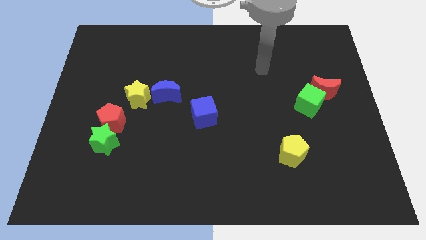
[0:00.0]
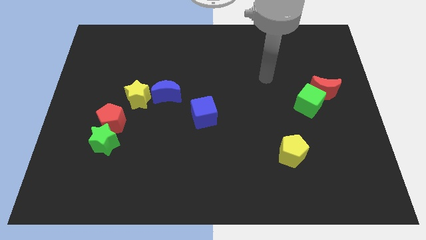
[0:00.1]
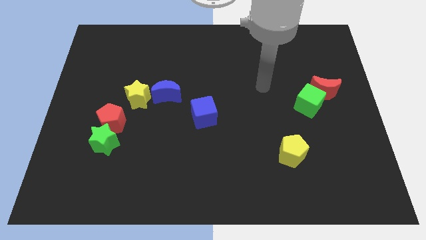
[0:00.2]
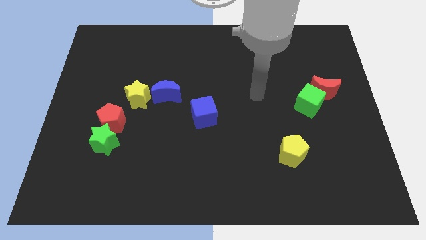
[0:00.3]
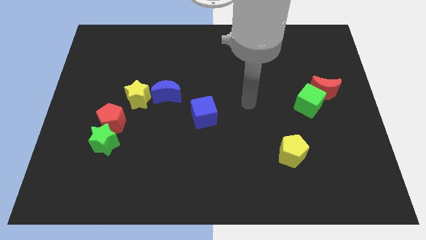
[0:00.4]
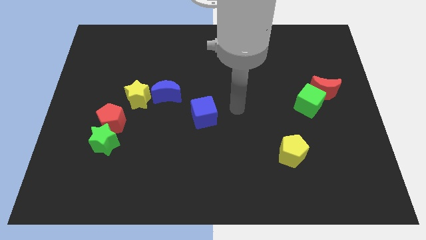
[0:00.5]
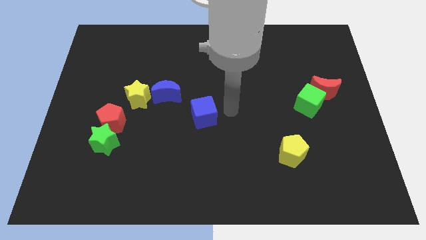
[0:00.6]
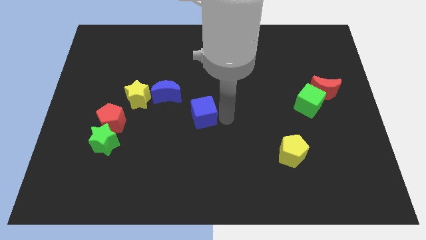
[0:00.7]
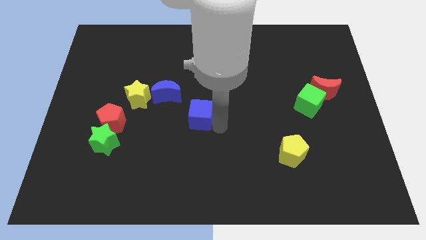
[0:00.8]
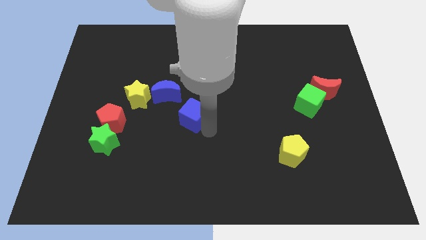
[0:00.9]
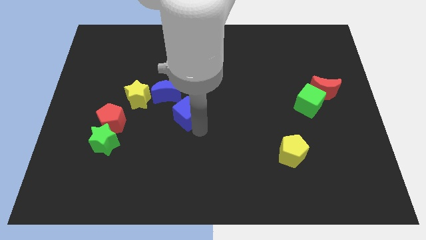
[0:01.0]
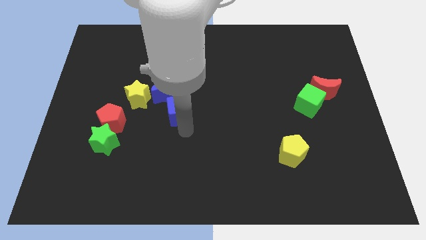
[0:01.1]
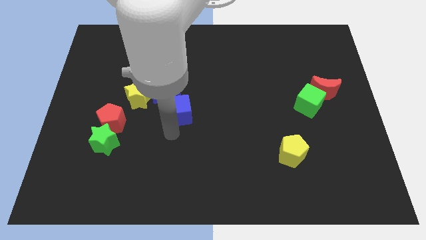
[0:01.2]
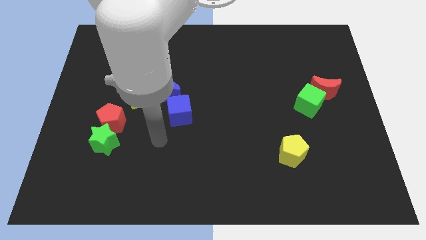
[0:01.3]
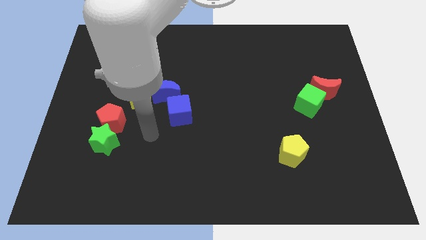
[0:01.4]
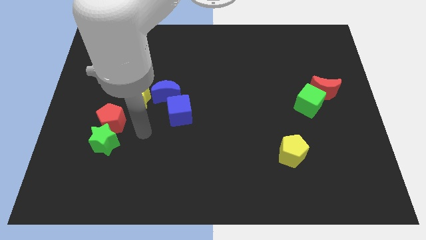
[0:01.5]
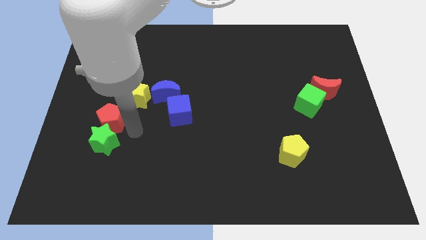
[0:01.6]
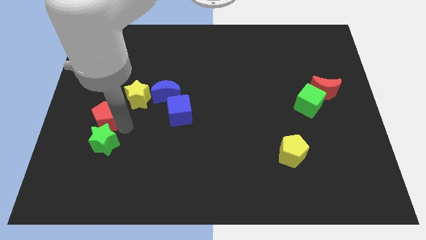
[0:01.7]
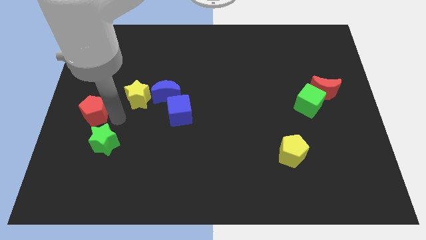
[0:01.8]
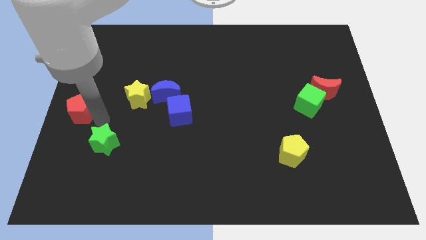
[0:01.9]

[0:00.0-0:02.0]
pull the green star apart from the red pentagon

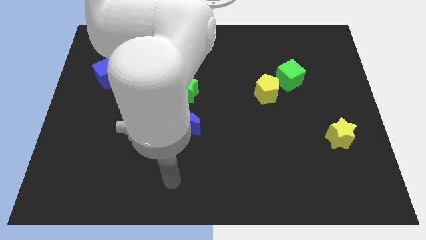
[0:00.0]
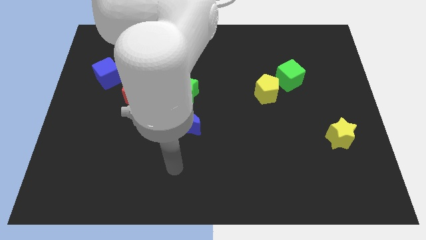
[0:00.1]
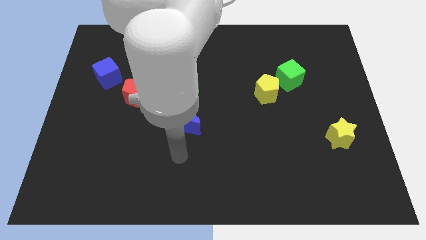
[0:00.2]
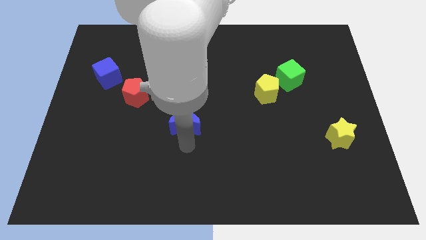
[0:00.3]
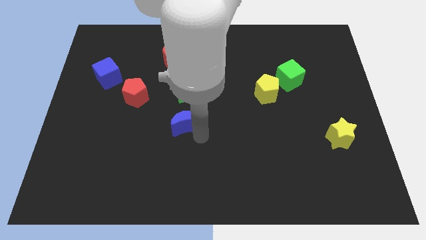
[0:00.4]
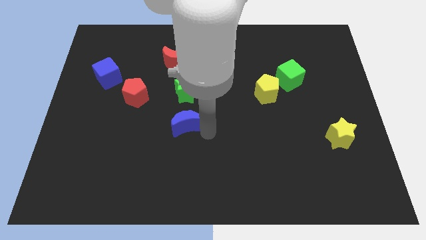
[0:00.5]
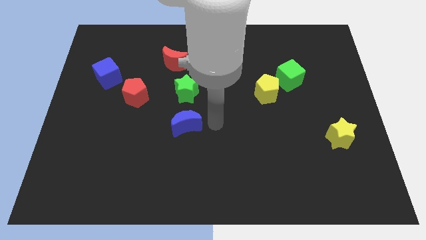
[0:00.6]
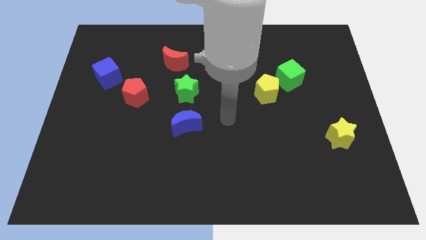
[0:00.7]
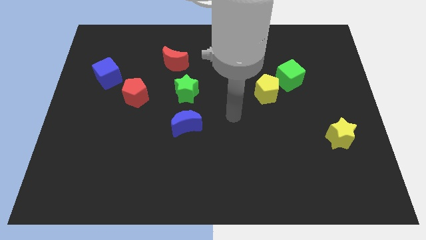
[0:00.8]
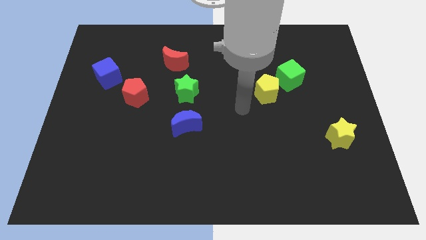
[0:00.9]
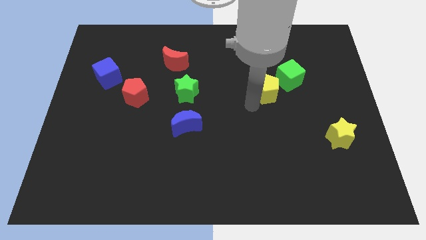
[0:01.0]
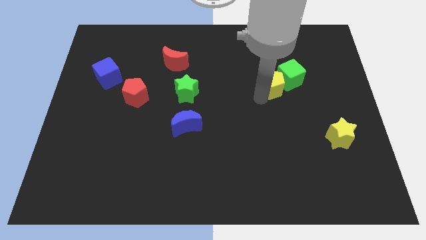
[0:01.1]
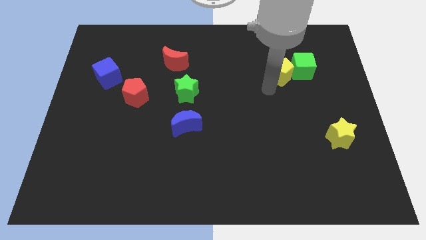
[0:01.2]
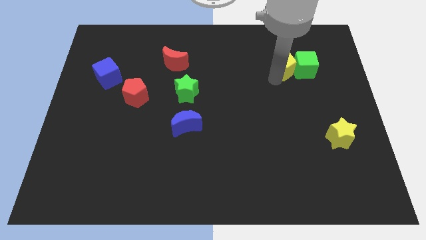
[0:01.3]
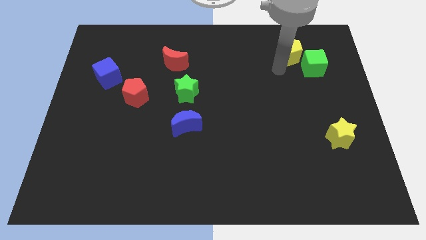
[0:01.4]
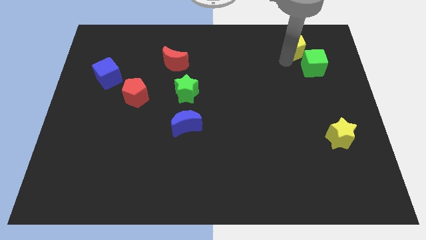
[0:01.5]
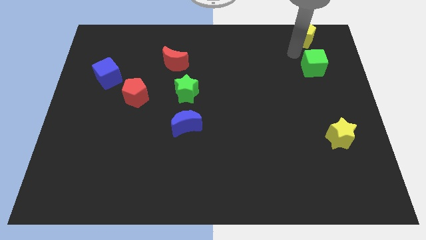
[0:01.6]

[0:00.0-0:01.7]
separate the green cube from the yellow pentagon

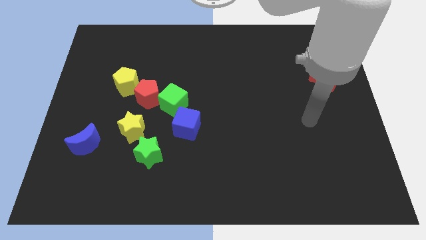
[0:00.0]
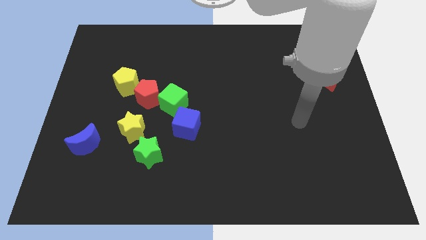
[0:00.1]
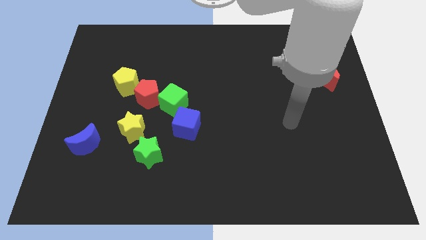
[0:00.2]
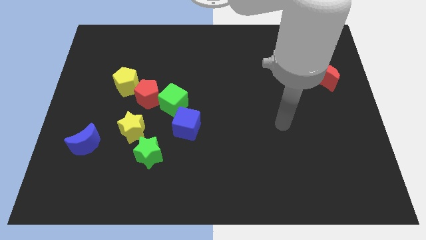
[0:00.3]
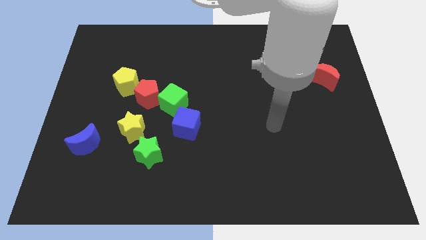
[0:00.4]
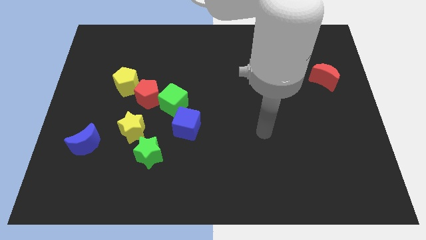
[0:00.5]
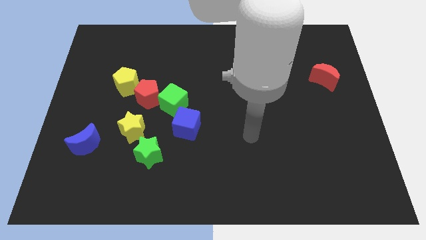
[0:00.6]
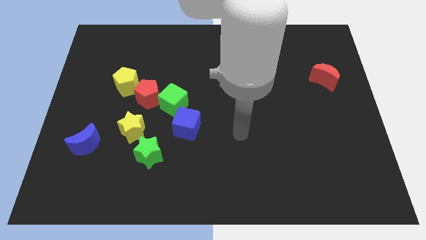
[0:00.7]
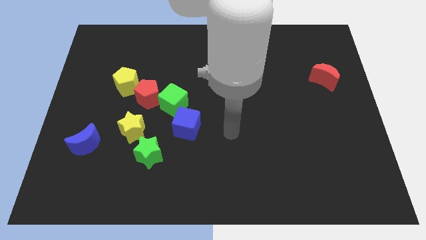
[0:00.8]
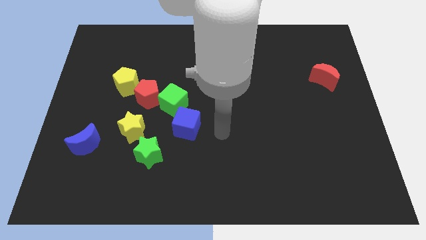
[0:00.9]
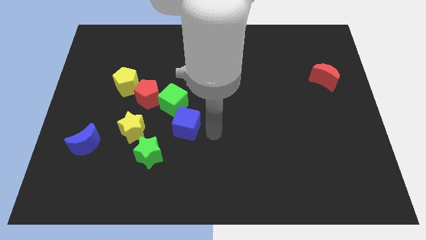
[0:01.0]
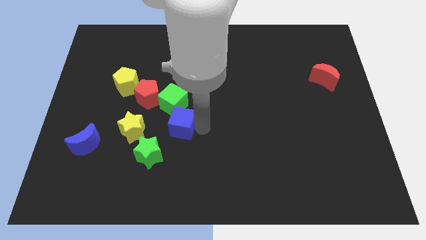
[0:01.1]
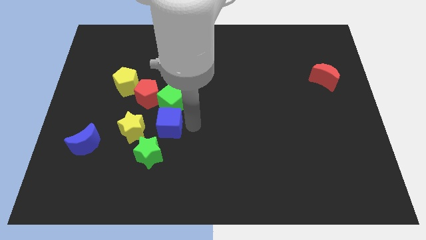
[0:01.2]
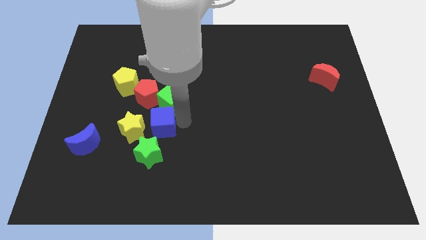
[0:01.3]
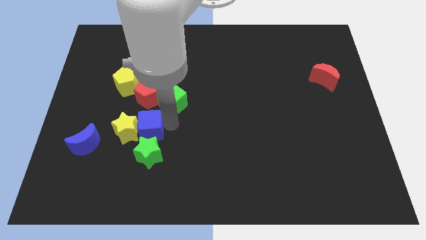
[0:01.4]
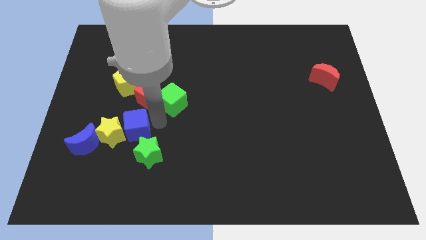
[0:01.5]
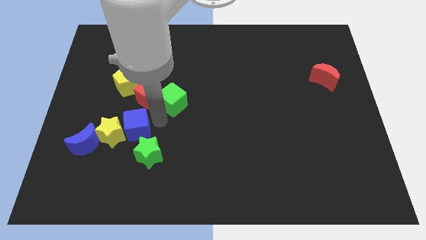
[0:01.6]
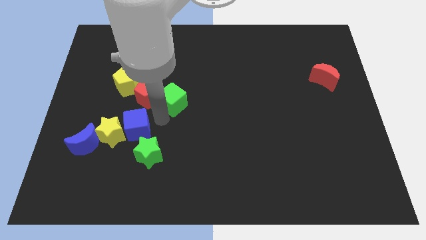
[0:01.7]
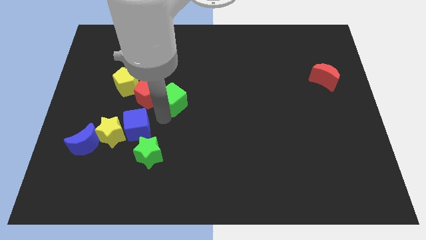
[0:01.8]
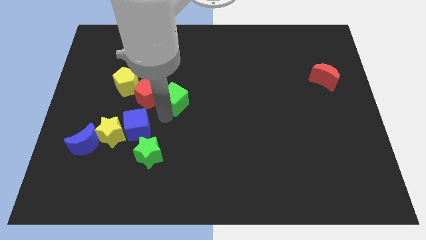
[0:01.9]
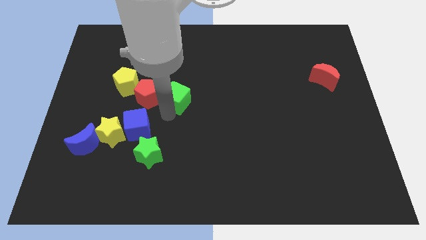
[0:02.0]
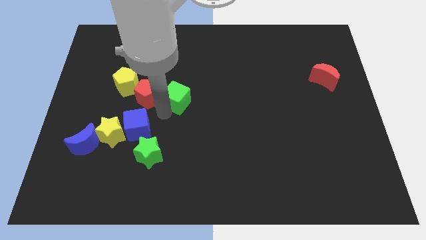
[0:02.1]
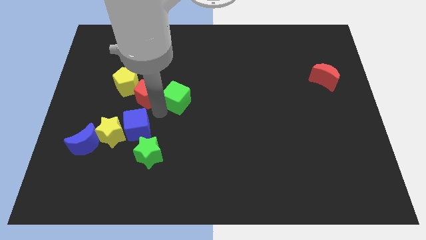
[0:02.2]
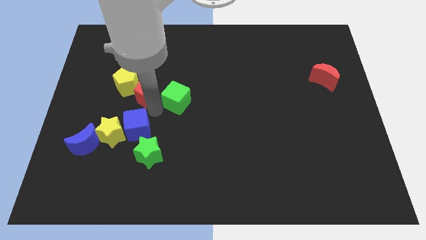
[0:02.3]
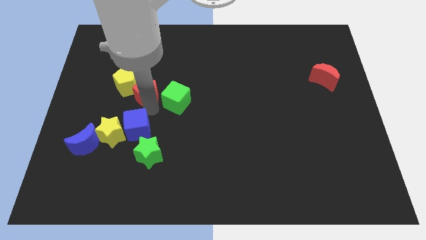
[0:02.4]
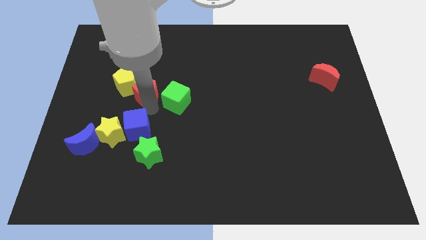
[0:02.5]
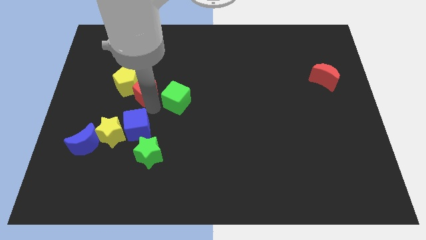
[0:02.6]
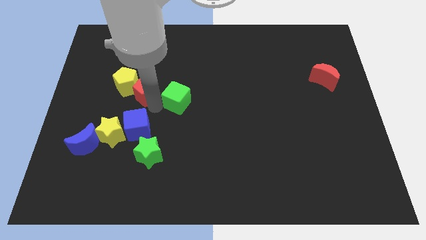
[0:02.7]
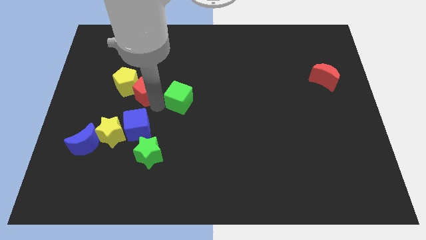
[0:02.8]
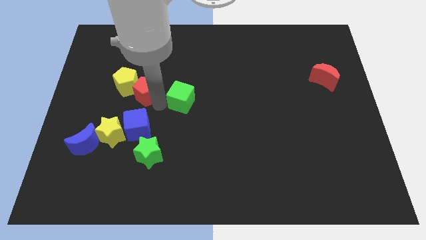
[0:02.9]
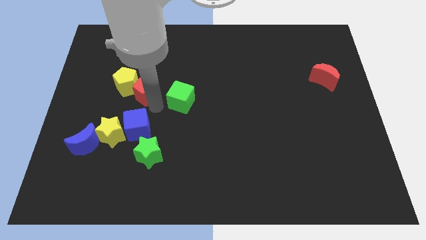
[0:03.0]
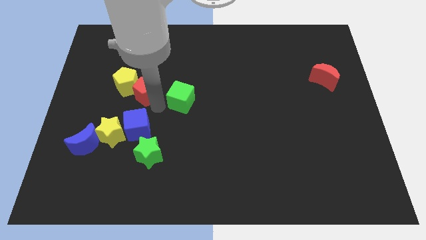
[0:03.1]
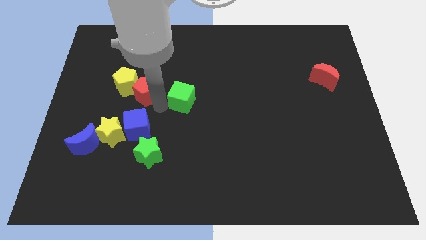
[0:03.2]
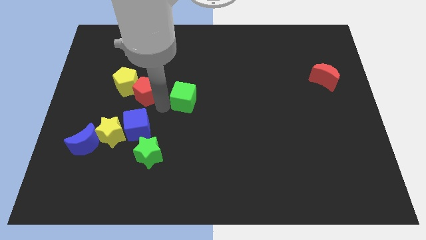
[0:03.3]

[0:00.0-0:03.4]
separate the green cube from the red pentagon and blue cube

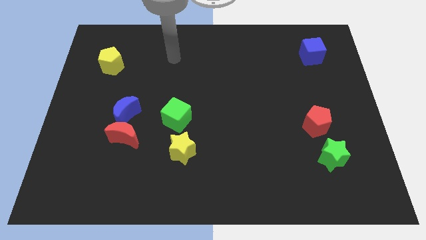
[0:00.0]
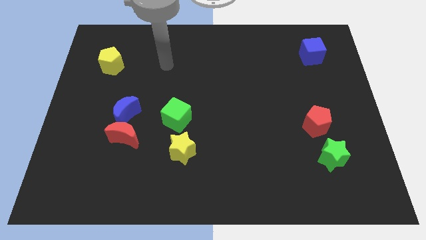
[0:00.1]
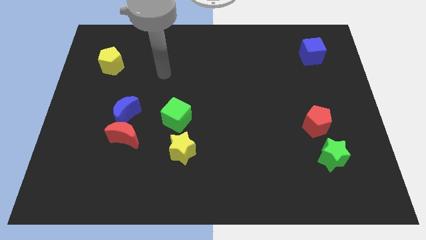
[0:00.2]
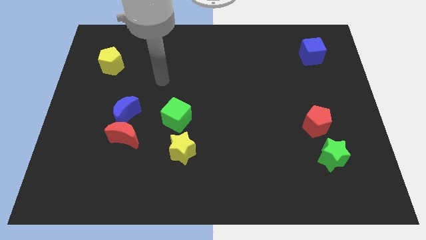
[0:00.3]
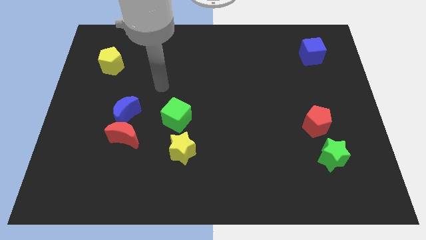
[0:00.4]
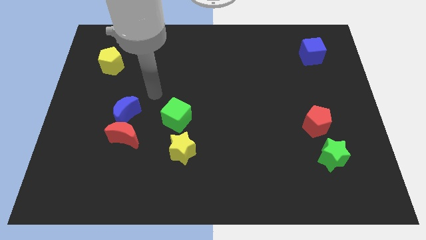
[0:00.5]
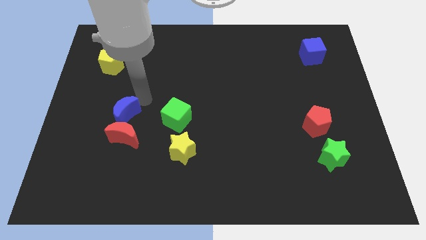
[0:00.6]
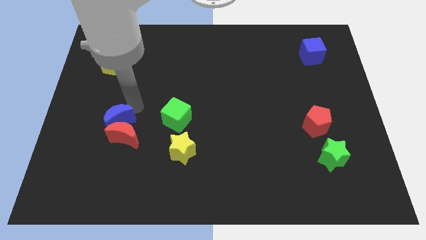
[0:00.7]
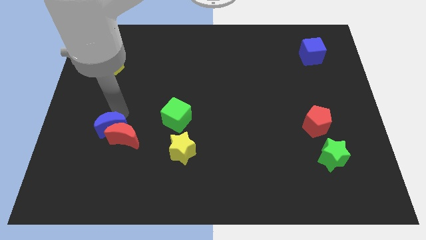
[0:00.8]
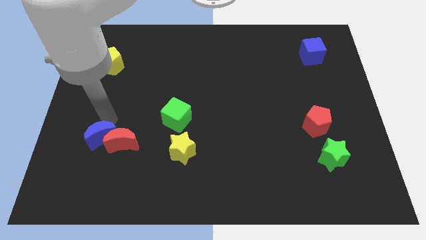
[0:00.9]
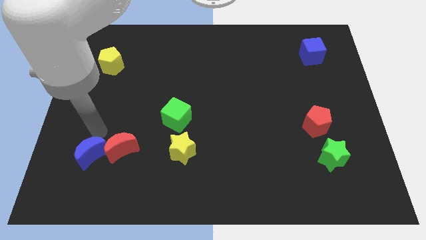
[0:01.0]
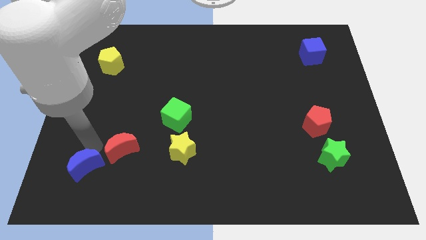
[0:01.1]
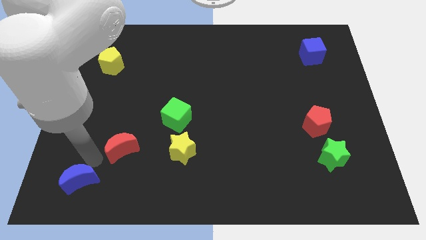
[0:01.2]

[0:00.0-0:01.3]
move the red moon away from the blue moon

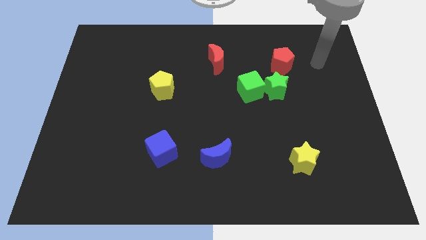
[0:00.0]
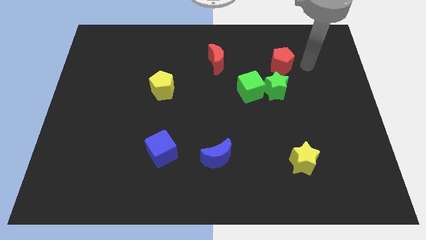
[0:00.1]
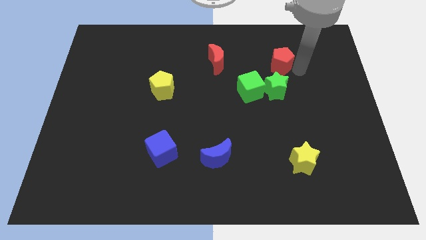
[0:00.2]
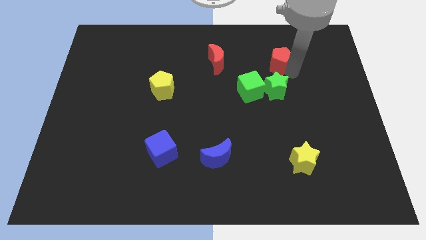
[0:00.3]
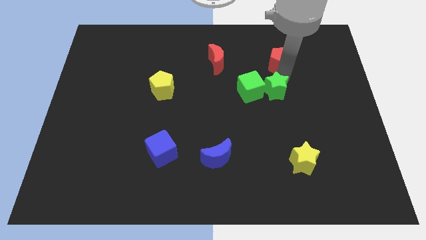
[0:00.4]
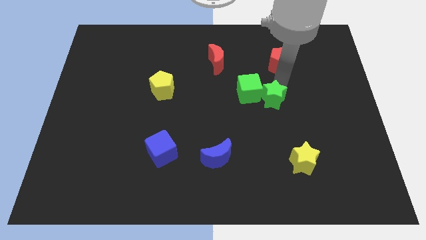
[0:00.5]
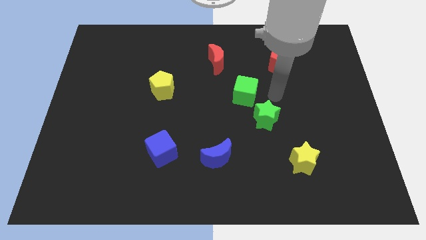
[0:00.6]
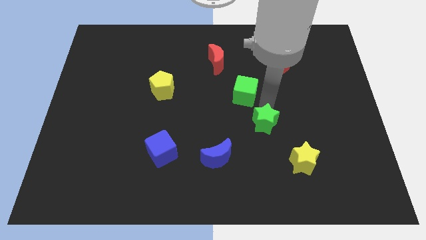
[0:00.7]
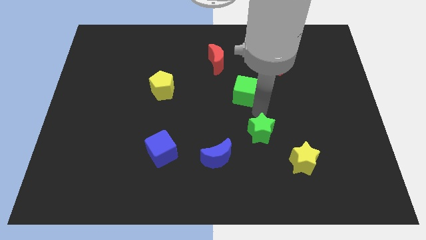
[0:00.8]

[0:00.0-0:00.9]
separate the green cube from the green star
